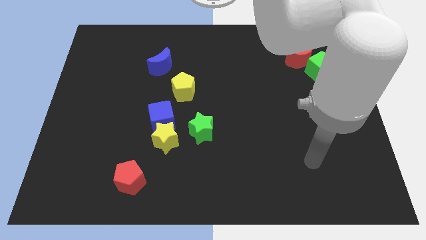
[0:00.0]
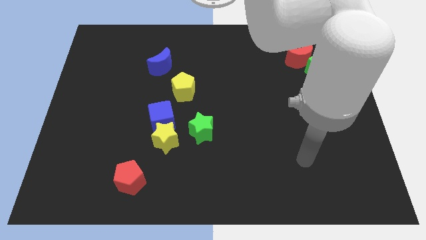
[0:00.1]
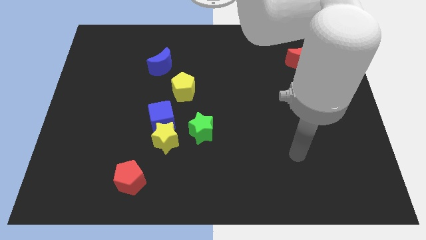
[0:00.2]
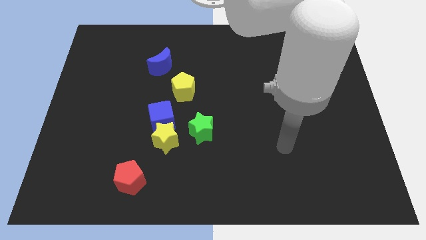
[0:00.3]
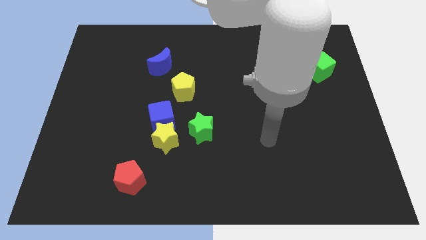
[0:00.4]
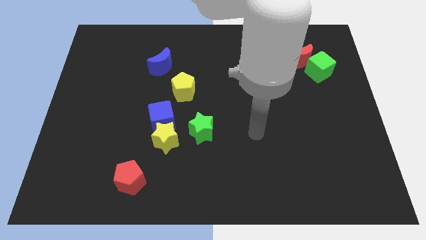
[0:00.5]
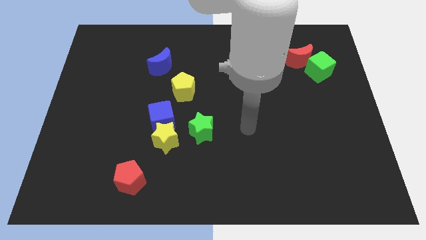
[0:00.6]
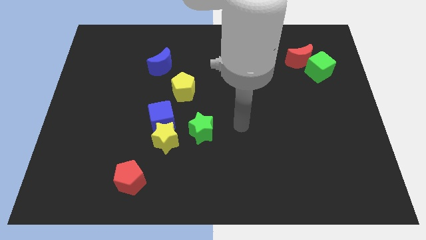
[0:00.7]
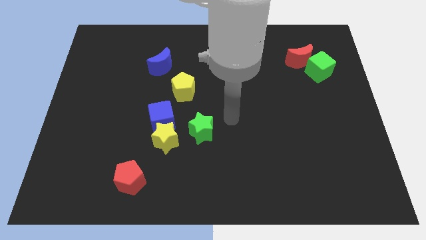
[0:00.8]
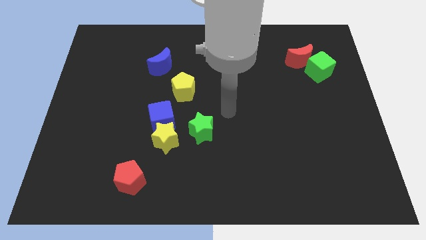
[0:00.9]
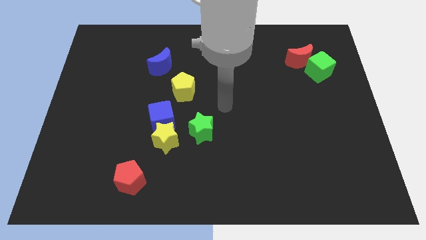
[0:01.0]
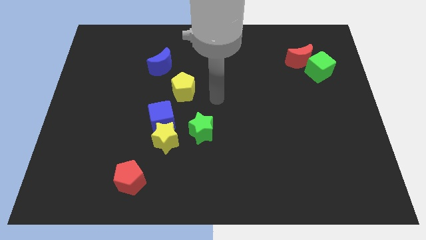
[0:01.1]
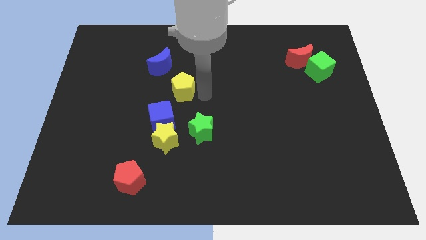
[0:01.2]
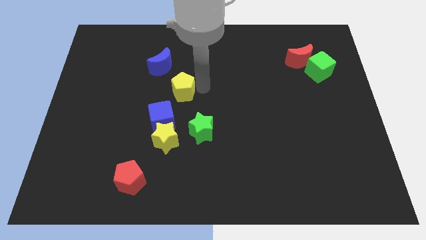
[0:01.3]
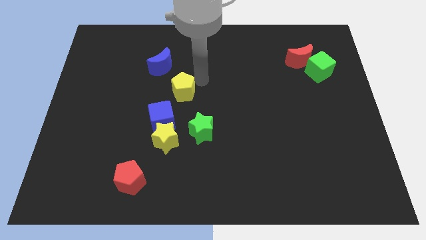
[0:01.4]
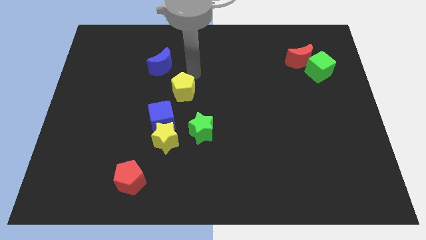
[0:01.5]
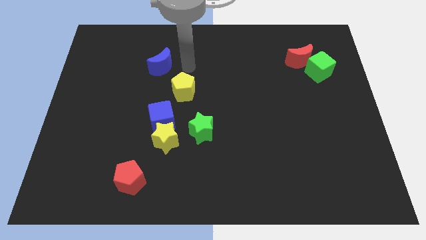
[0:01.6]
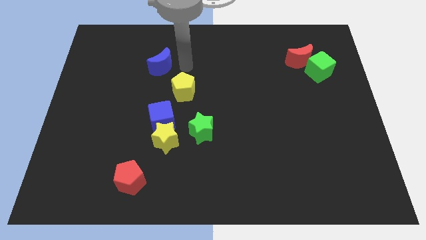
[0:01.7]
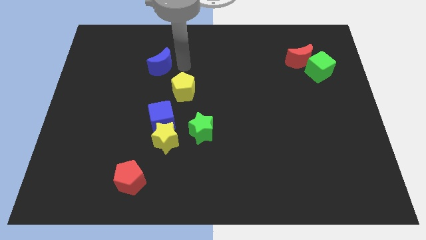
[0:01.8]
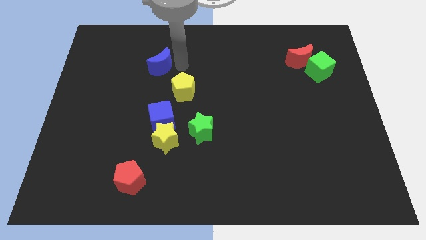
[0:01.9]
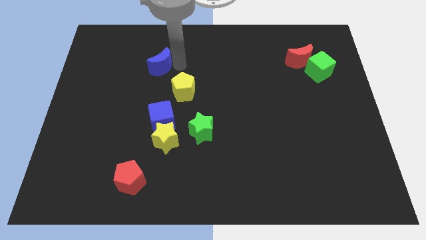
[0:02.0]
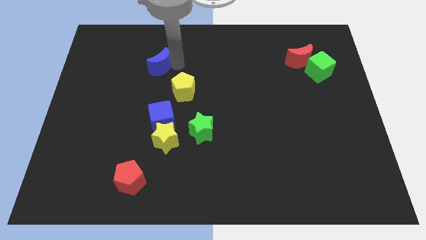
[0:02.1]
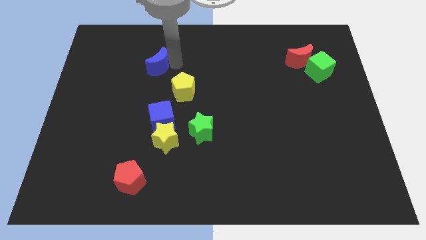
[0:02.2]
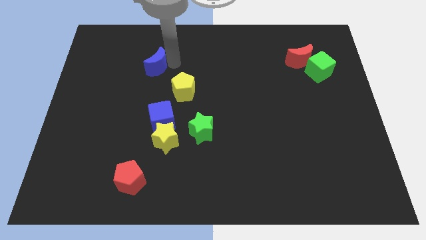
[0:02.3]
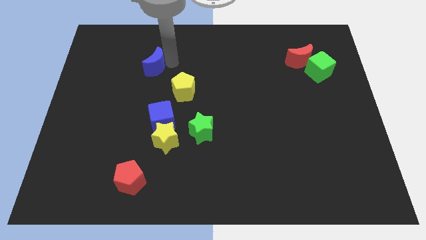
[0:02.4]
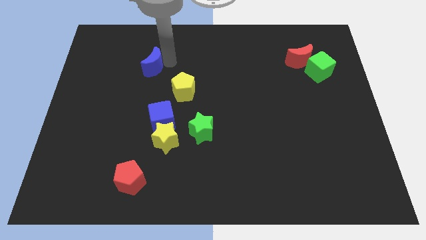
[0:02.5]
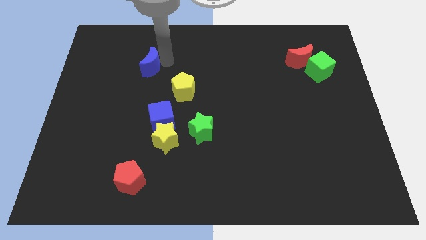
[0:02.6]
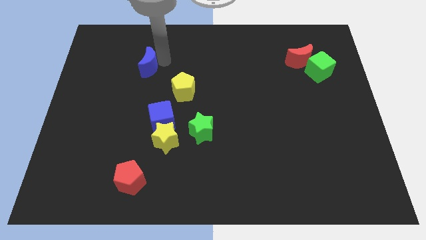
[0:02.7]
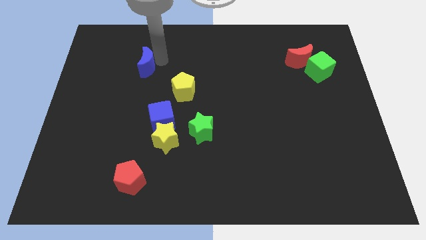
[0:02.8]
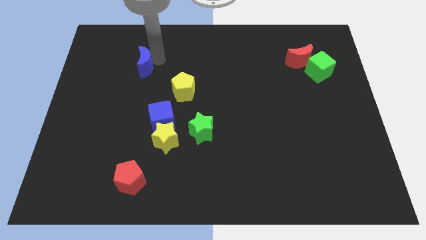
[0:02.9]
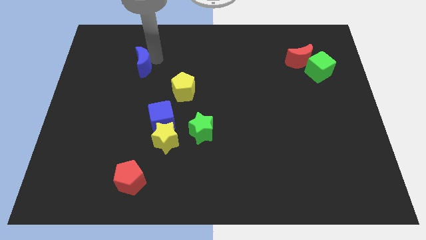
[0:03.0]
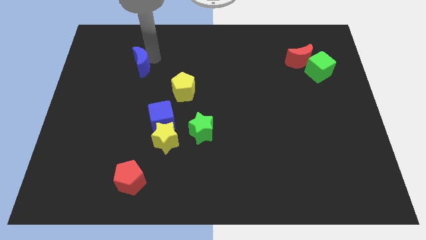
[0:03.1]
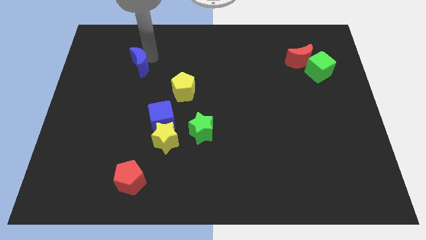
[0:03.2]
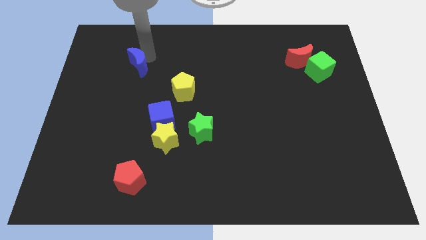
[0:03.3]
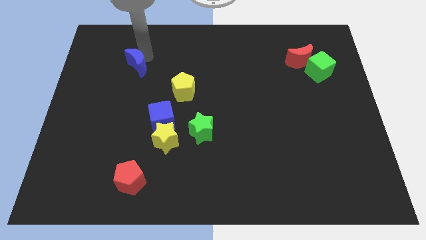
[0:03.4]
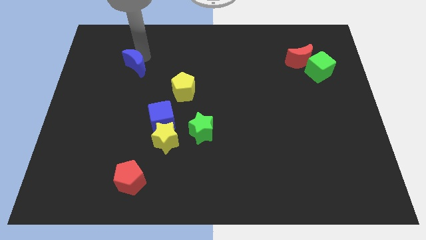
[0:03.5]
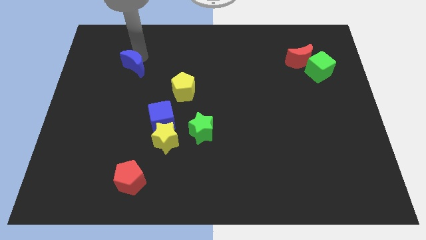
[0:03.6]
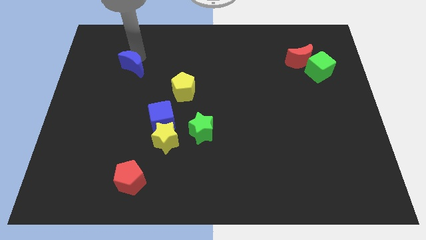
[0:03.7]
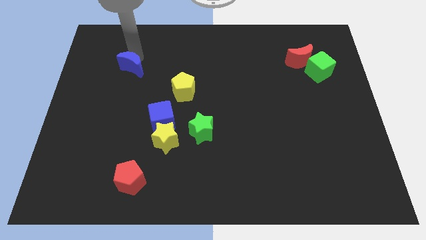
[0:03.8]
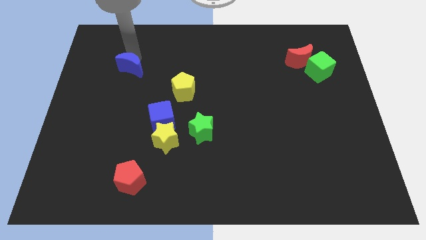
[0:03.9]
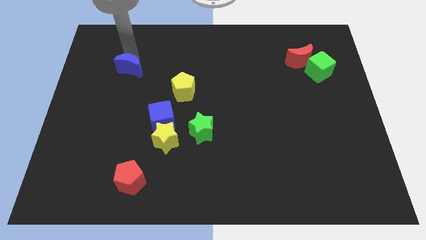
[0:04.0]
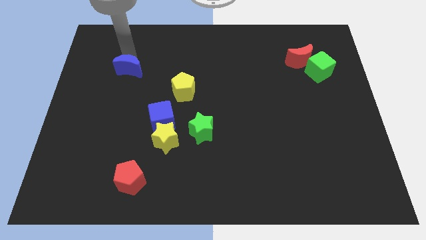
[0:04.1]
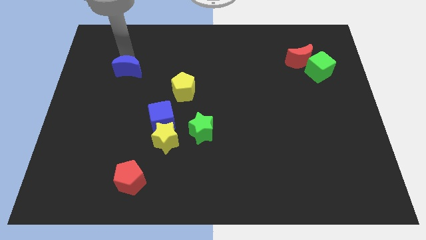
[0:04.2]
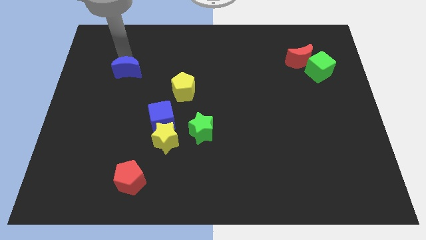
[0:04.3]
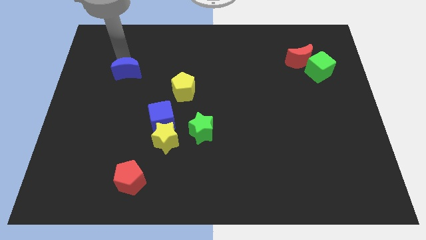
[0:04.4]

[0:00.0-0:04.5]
push the blue moon diagonally downwards and left a bit

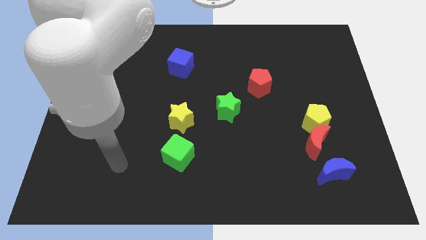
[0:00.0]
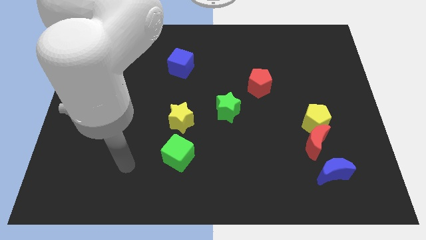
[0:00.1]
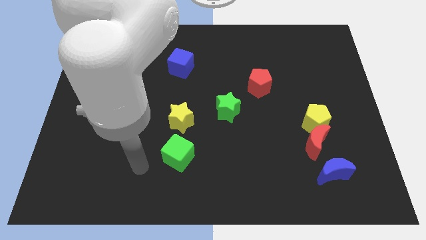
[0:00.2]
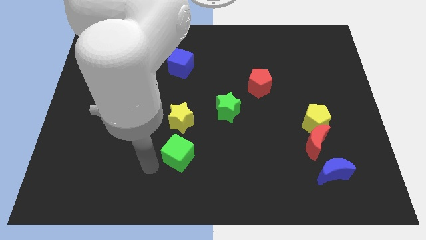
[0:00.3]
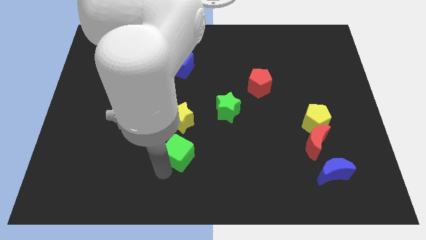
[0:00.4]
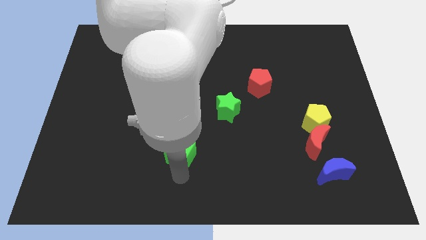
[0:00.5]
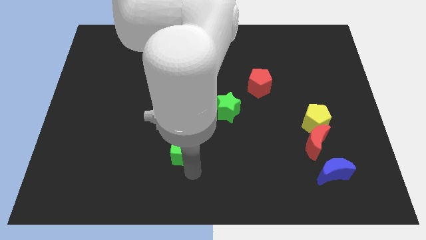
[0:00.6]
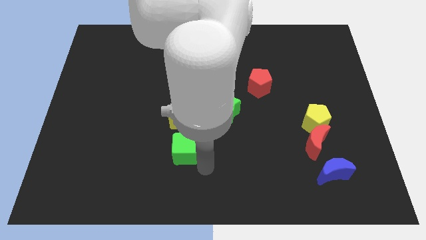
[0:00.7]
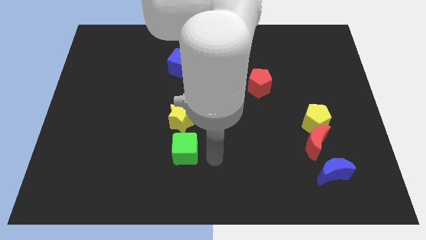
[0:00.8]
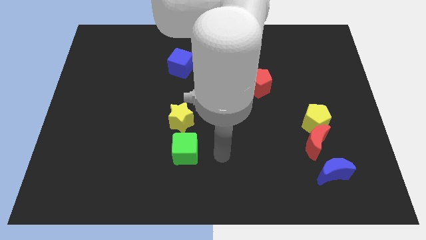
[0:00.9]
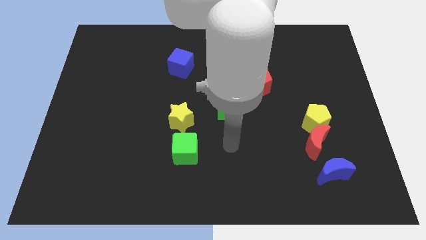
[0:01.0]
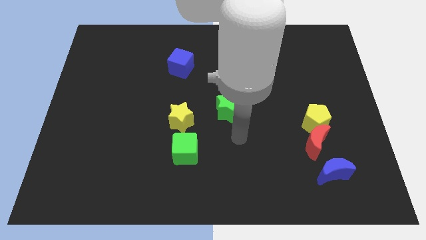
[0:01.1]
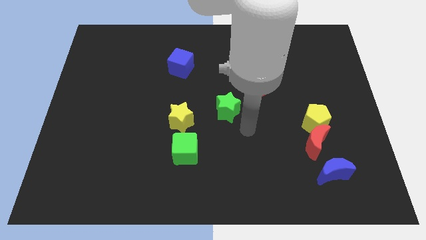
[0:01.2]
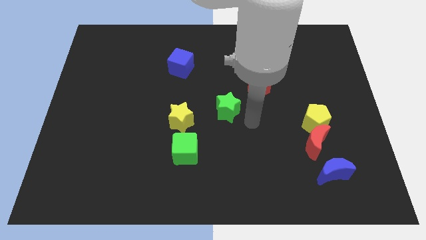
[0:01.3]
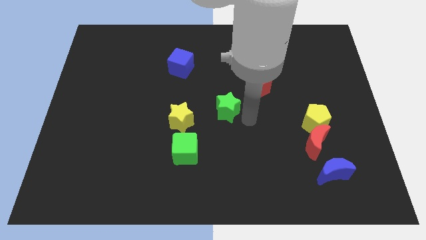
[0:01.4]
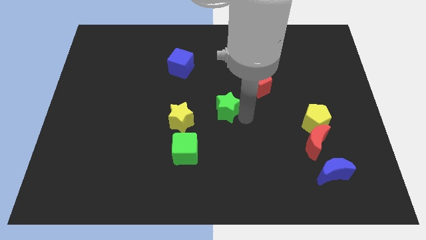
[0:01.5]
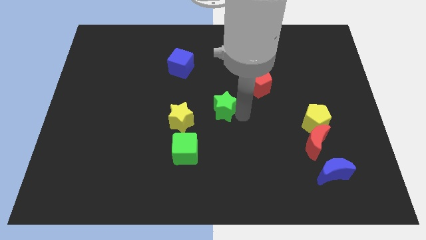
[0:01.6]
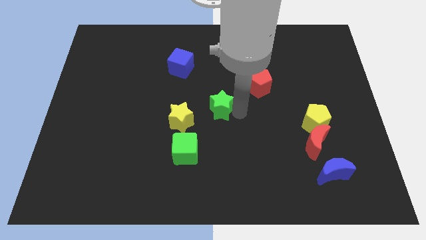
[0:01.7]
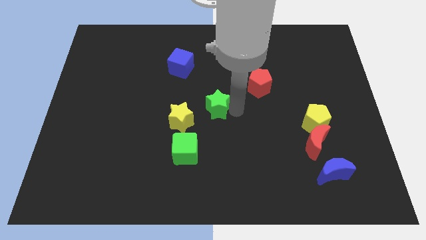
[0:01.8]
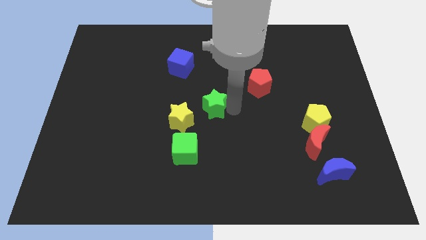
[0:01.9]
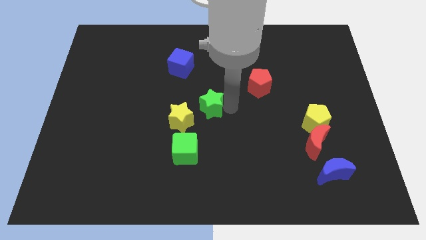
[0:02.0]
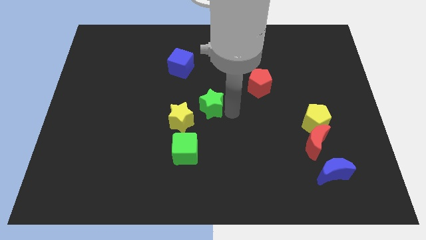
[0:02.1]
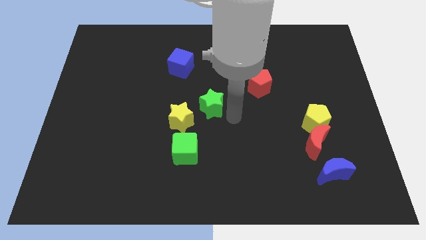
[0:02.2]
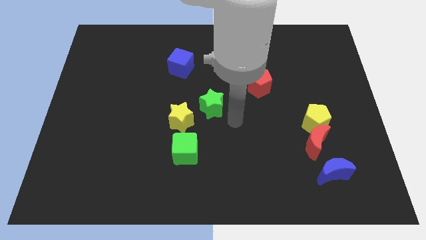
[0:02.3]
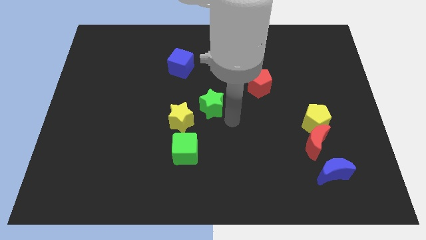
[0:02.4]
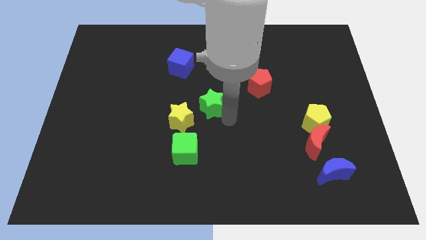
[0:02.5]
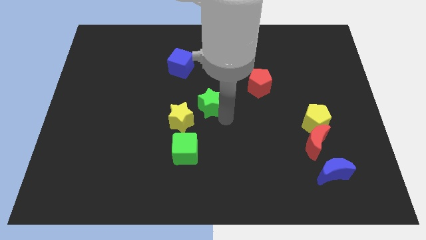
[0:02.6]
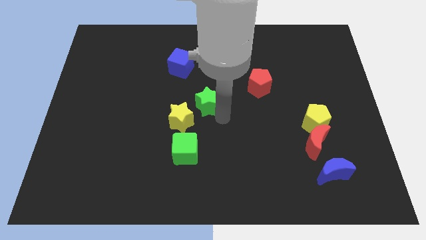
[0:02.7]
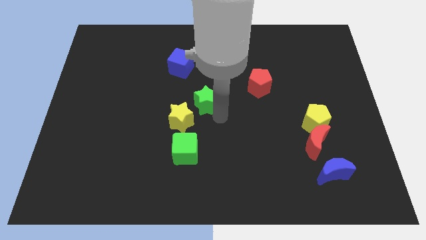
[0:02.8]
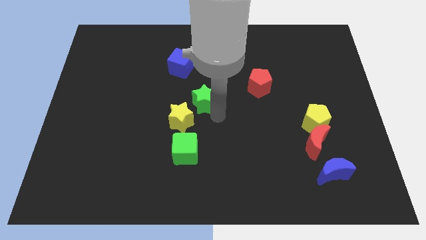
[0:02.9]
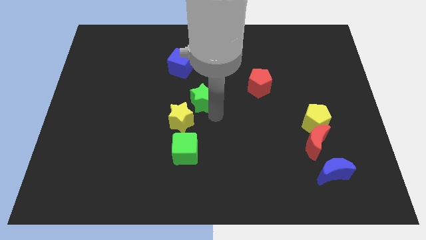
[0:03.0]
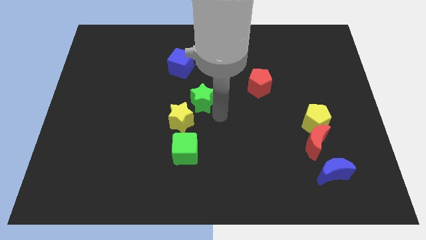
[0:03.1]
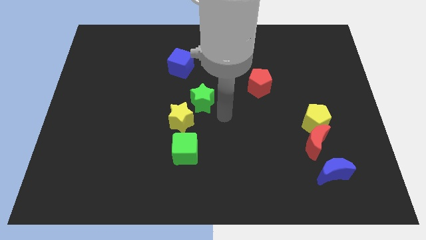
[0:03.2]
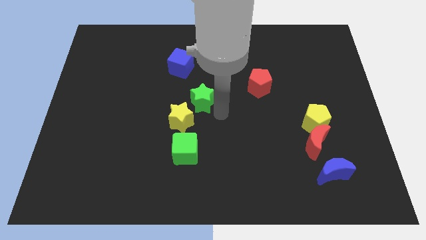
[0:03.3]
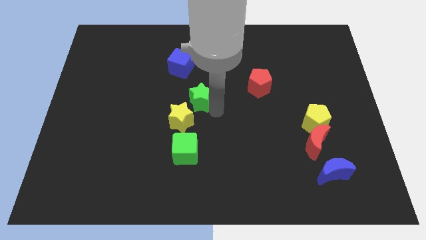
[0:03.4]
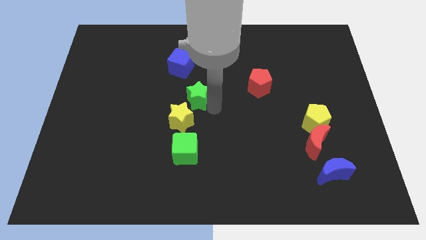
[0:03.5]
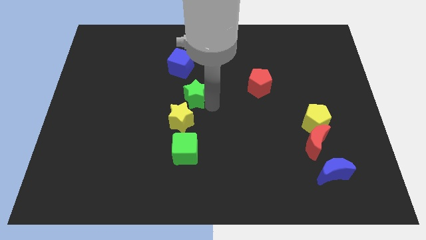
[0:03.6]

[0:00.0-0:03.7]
slide the green star somewhat to the left

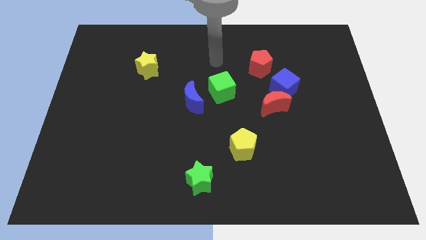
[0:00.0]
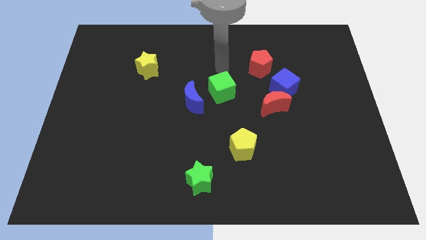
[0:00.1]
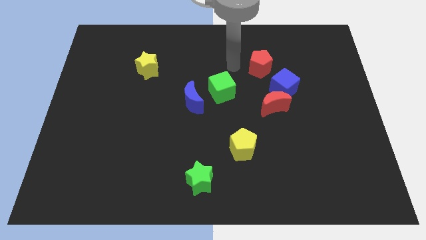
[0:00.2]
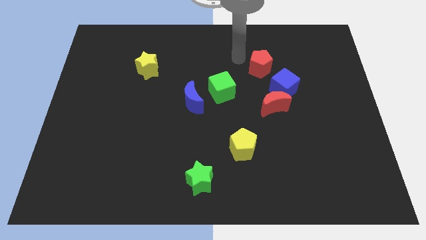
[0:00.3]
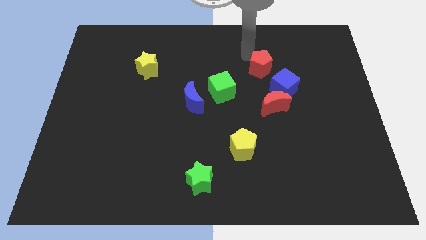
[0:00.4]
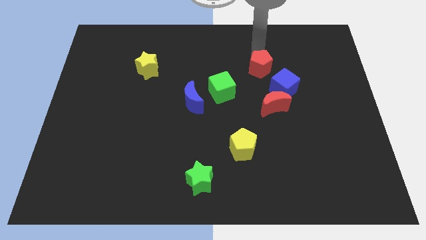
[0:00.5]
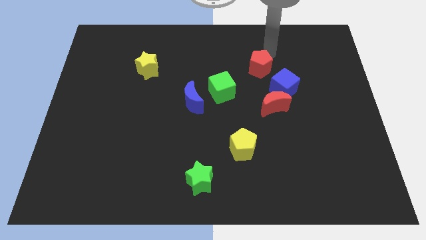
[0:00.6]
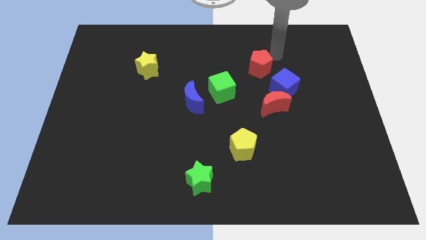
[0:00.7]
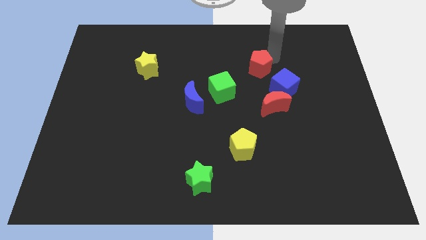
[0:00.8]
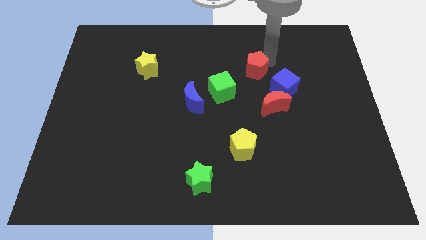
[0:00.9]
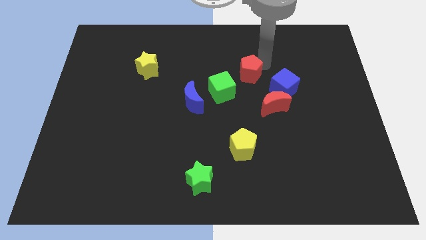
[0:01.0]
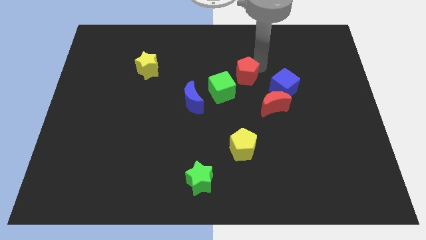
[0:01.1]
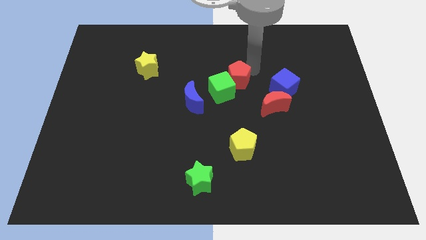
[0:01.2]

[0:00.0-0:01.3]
slightly move the red pentagon downwards and to the left diagonally
